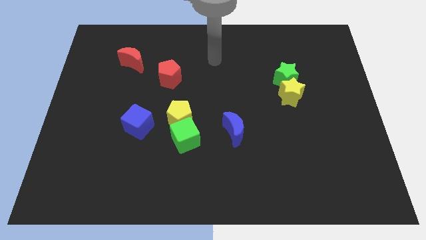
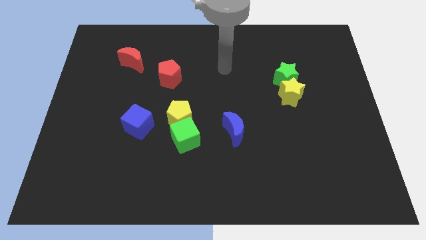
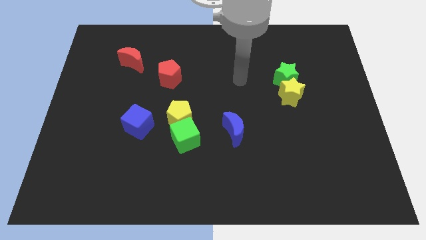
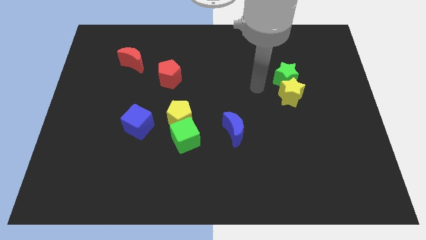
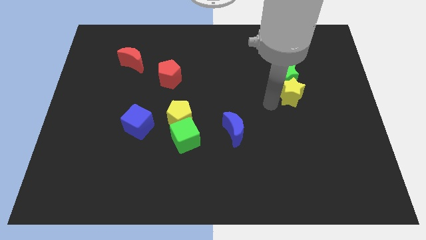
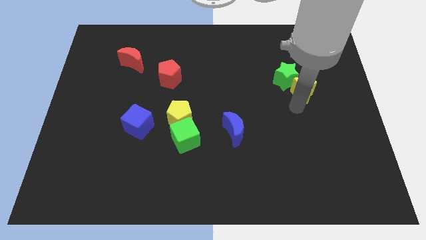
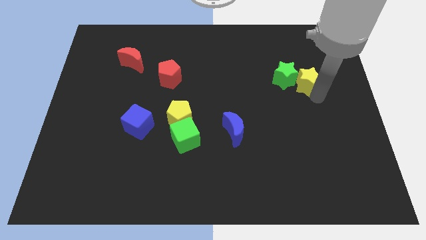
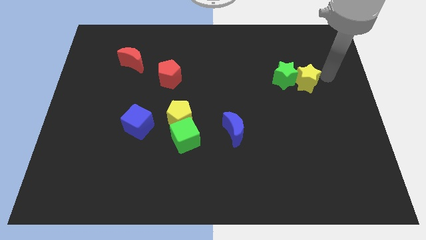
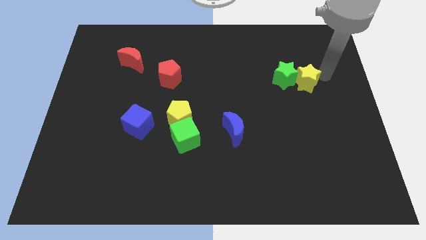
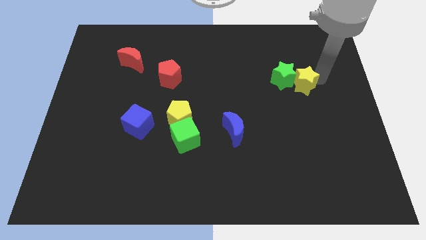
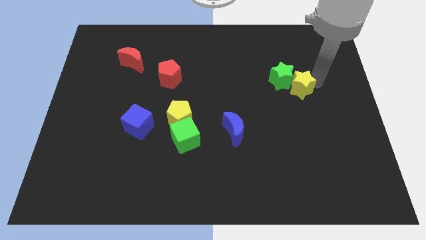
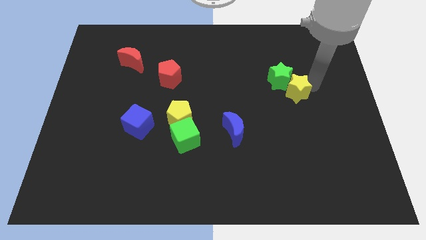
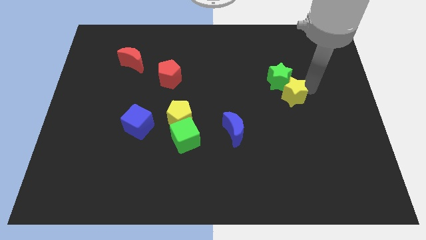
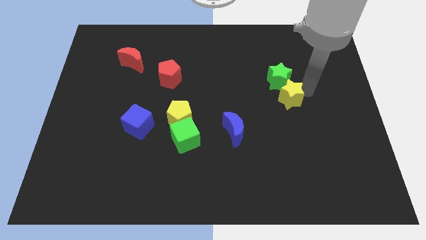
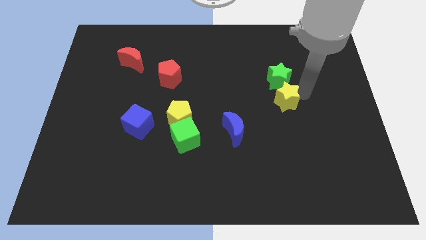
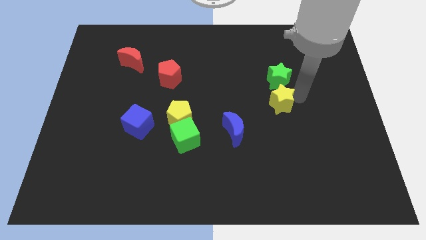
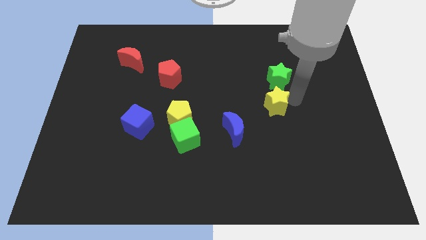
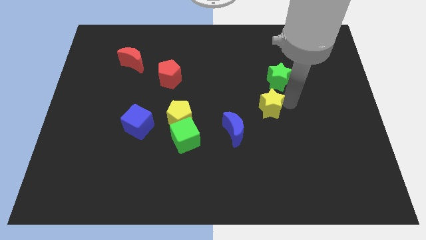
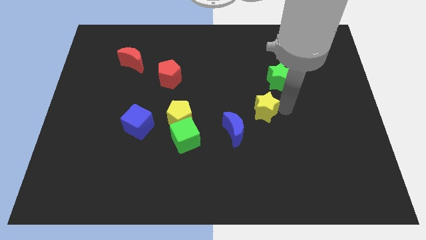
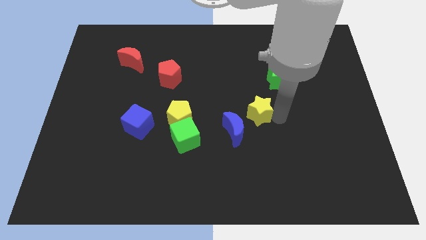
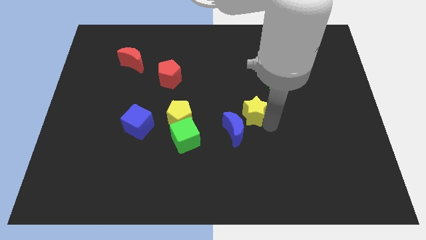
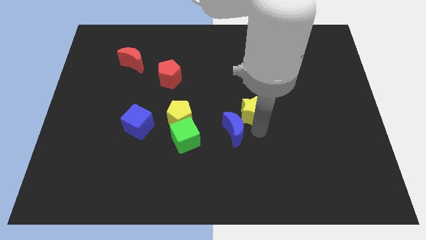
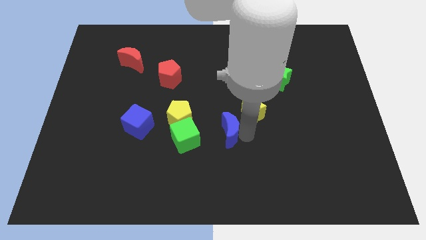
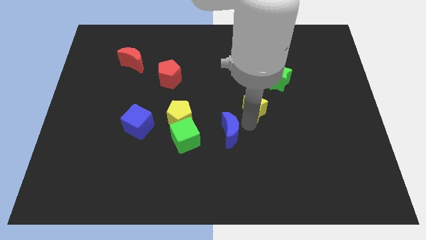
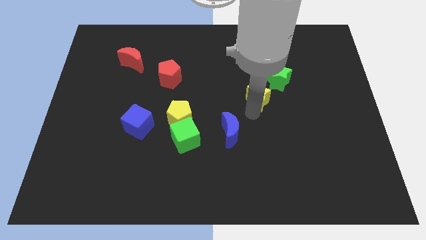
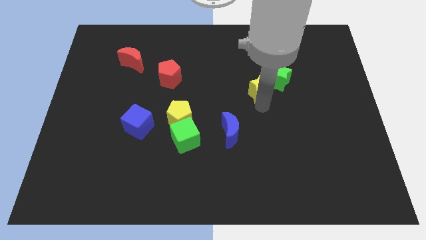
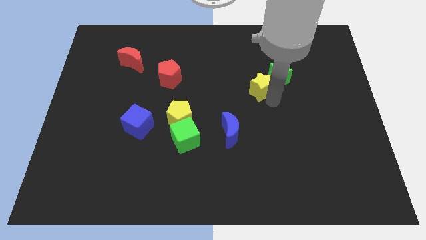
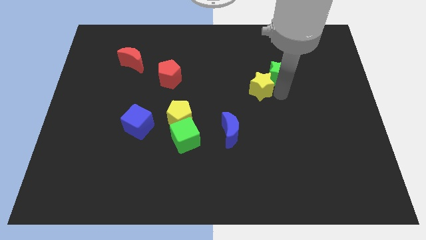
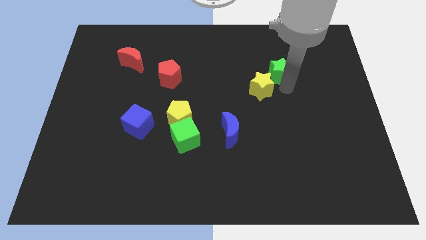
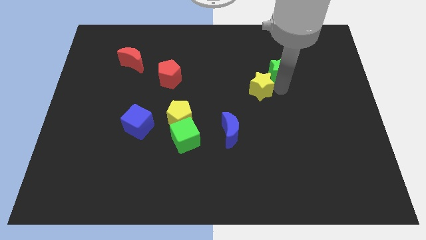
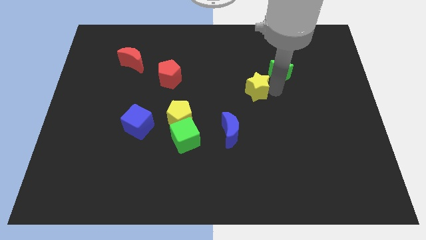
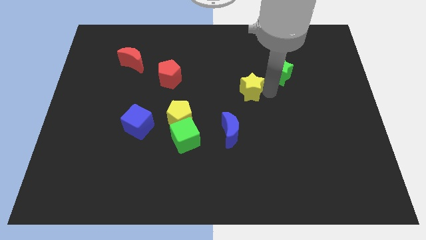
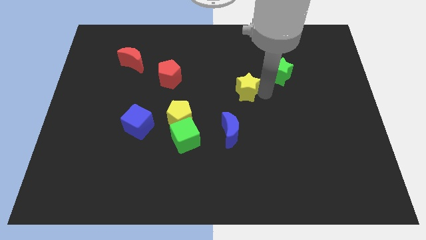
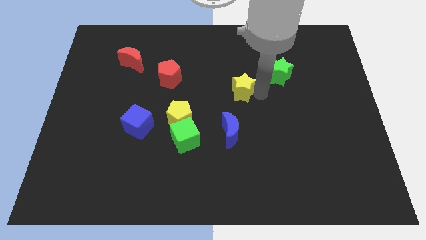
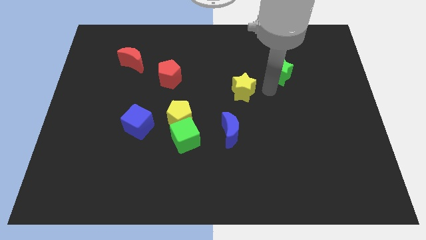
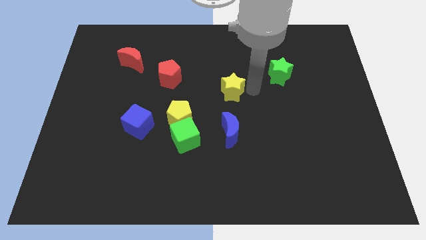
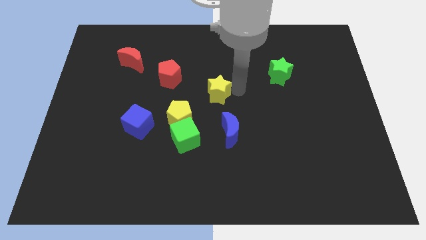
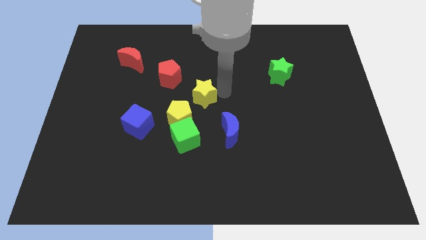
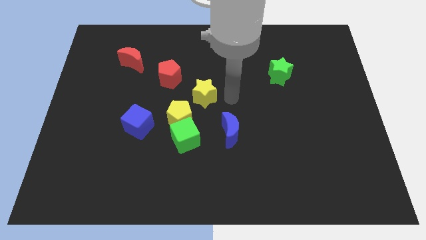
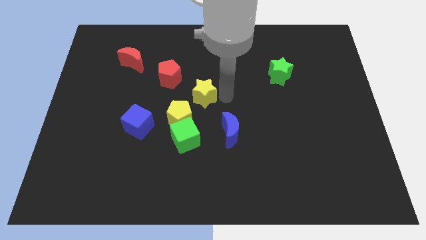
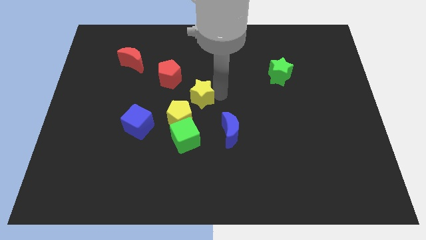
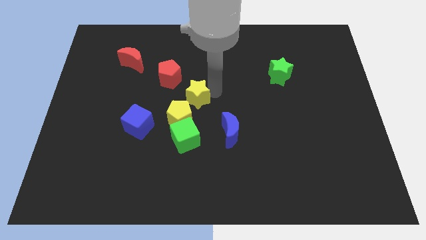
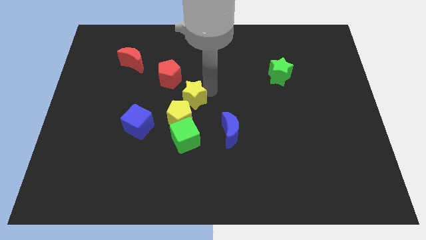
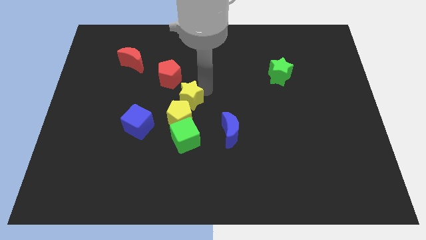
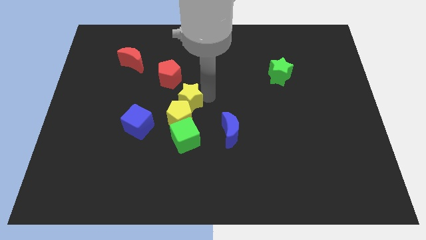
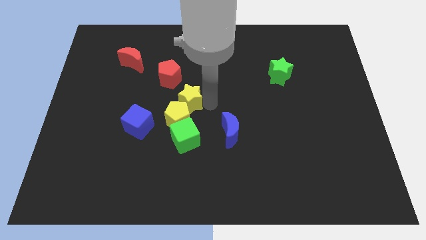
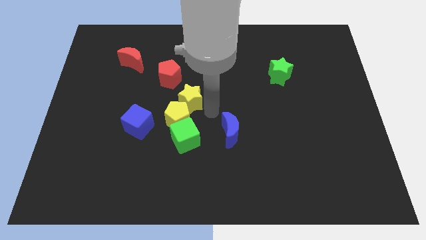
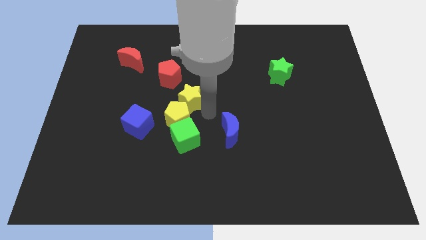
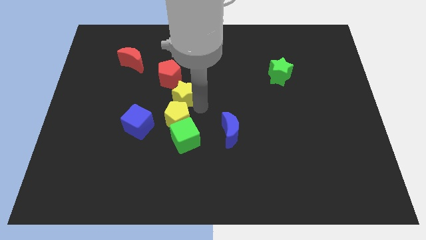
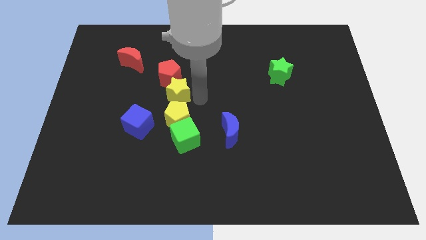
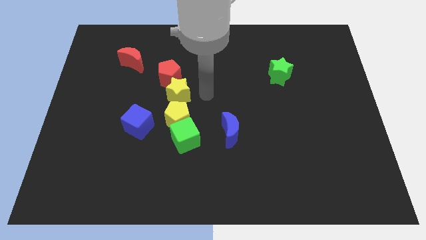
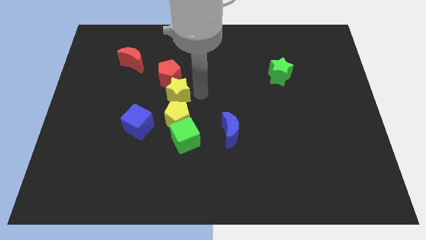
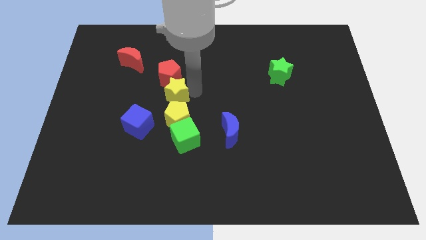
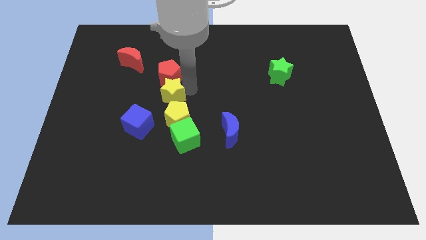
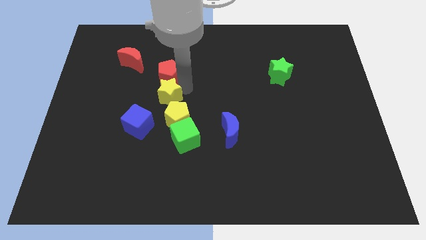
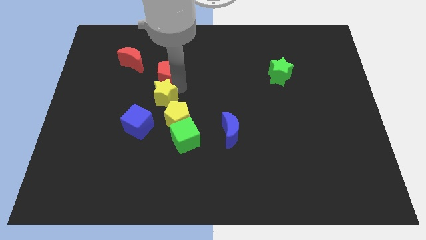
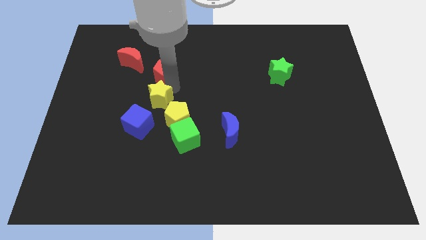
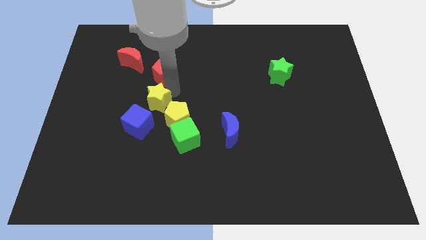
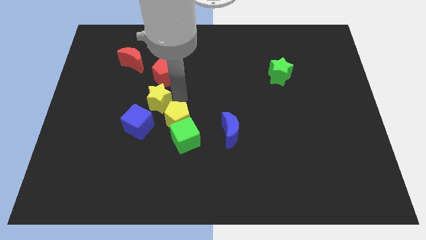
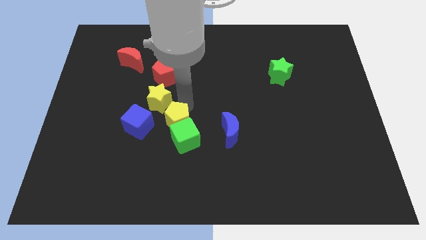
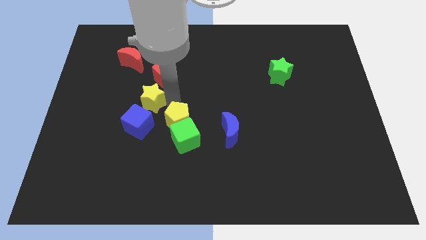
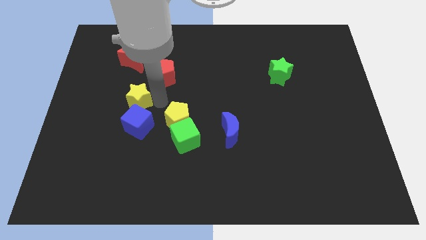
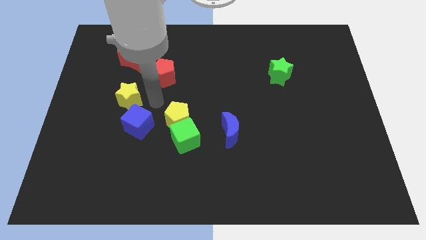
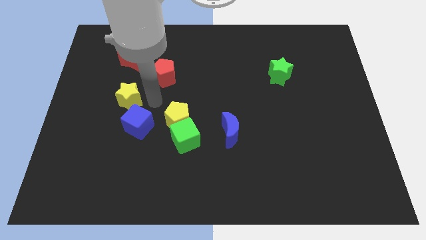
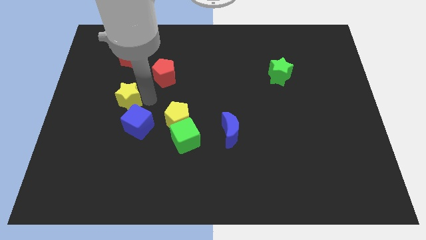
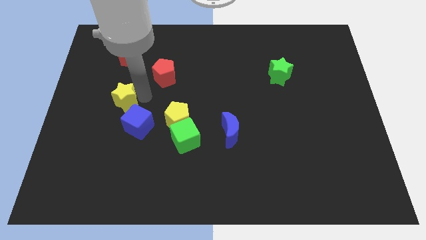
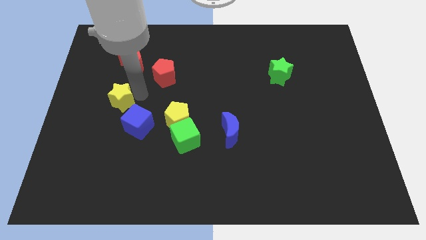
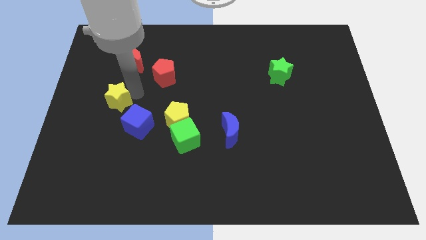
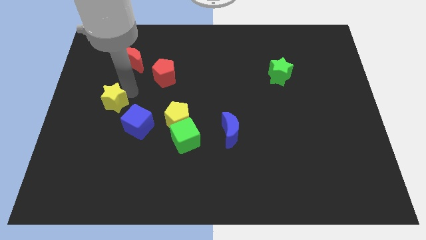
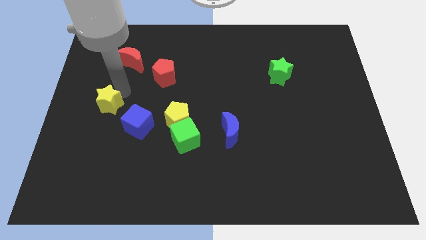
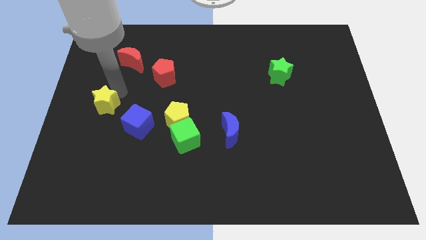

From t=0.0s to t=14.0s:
slide the yellow star to the center left
